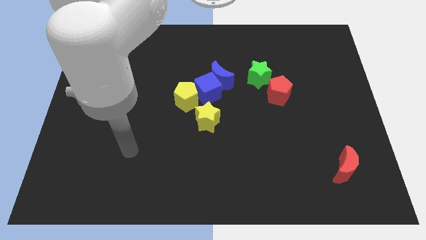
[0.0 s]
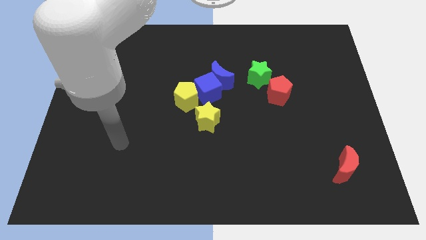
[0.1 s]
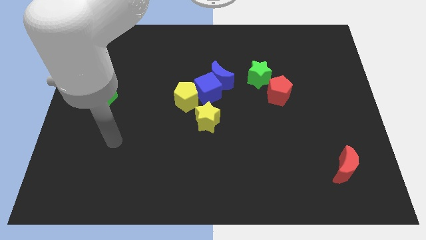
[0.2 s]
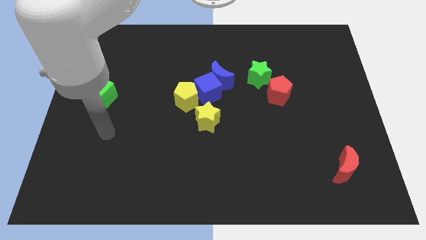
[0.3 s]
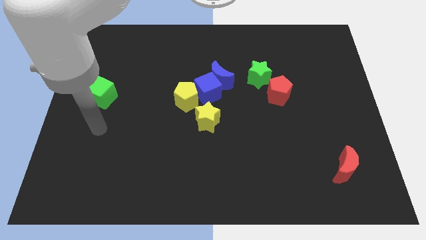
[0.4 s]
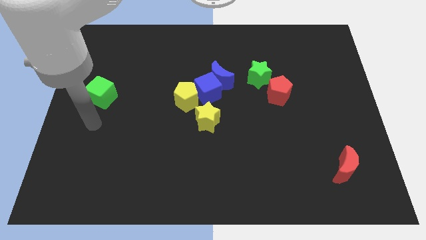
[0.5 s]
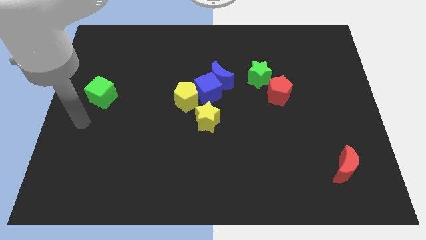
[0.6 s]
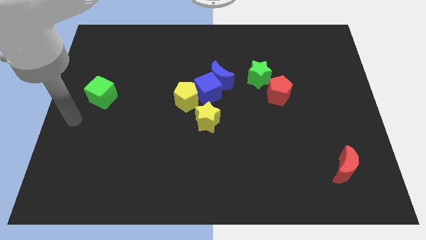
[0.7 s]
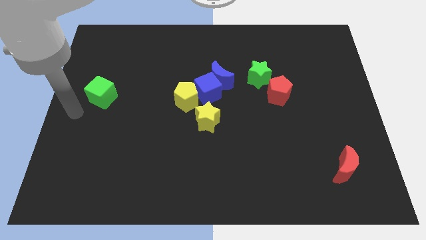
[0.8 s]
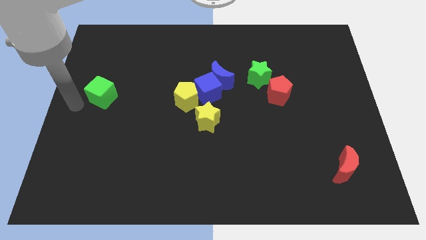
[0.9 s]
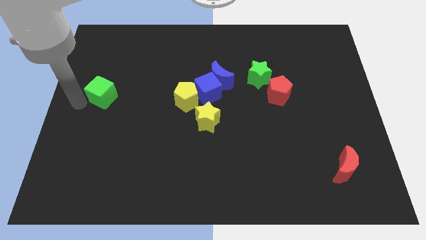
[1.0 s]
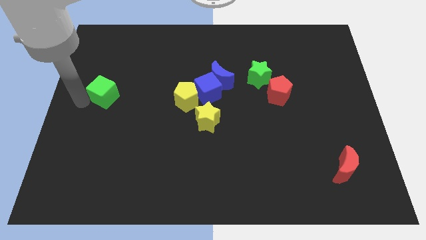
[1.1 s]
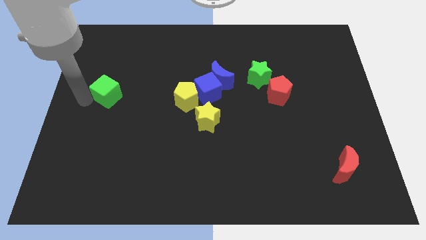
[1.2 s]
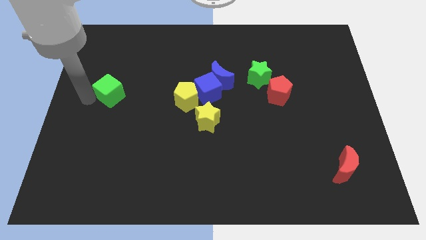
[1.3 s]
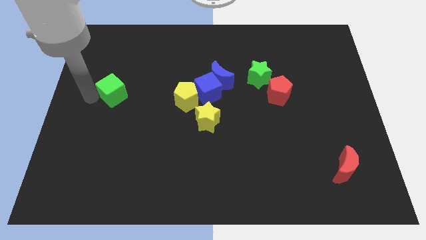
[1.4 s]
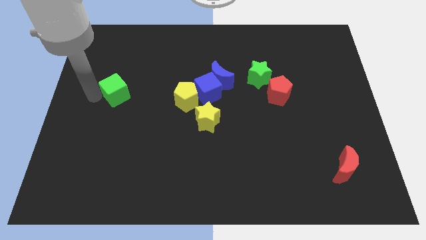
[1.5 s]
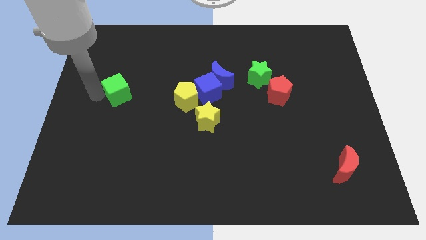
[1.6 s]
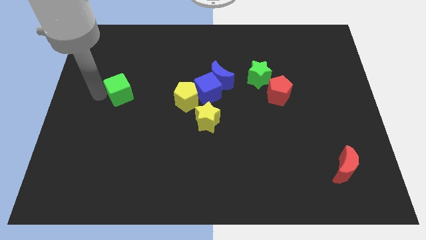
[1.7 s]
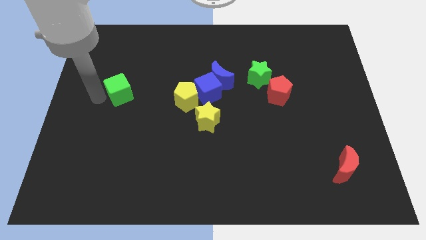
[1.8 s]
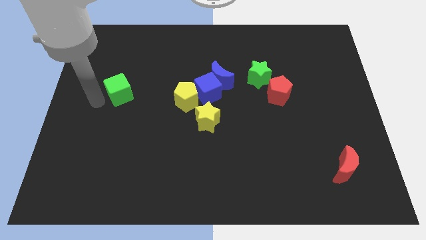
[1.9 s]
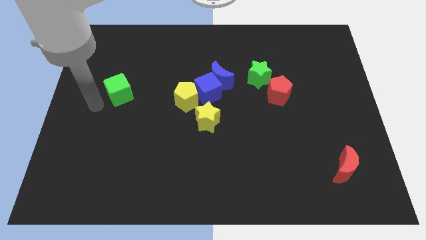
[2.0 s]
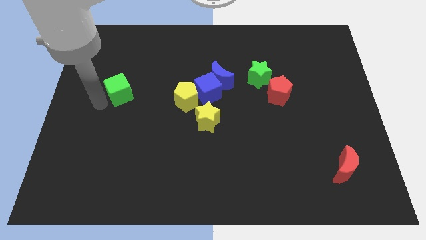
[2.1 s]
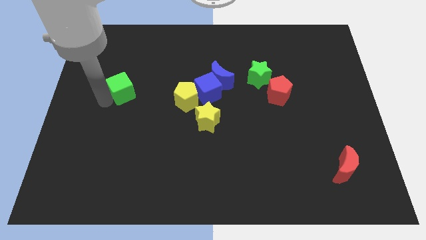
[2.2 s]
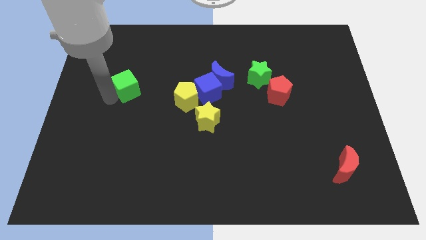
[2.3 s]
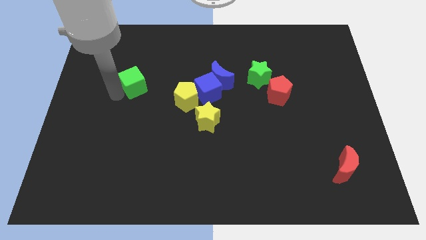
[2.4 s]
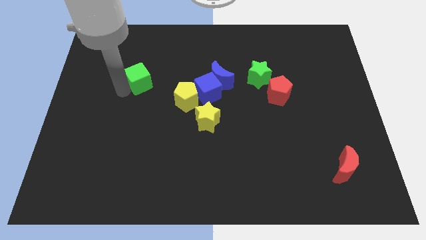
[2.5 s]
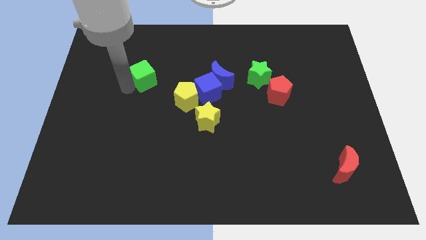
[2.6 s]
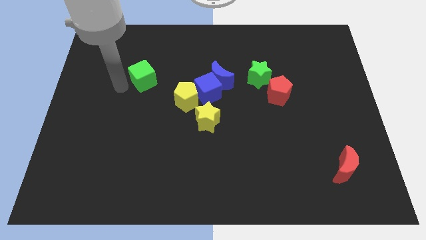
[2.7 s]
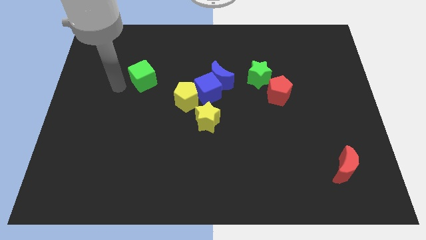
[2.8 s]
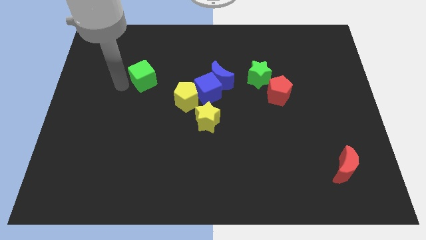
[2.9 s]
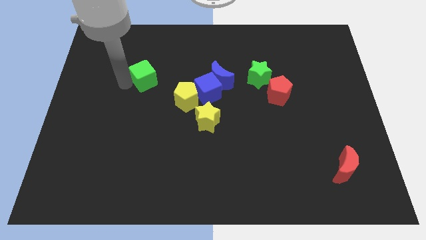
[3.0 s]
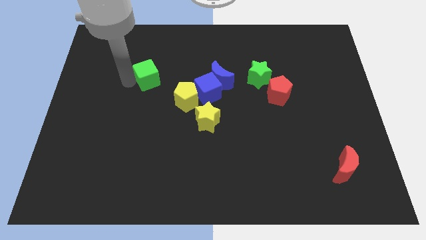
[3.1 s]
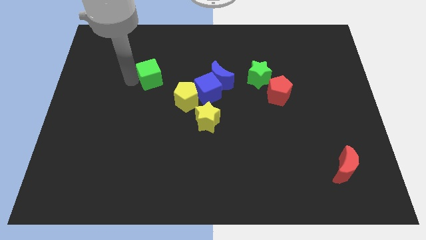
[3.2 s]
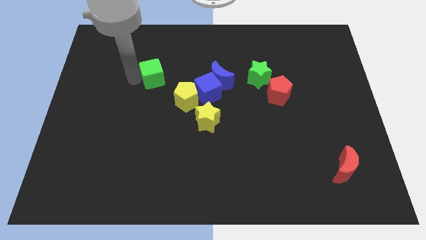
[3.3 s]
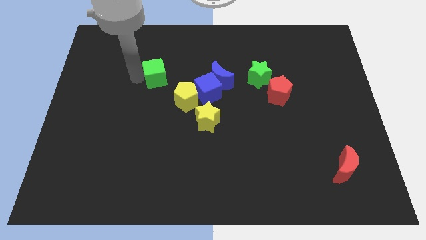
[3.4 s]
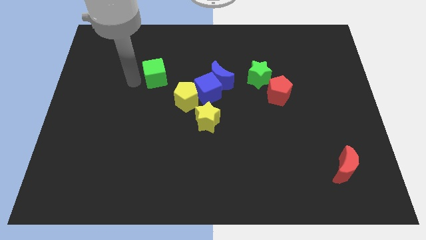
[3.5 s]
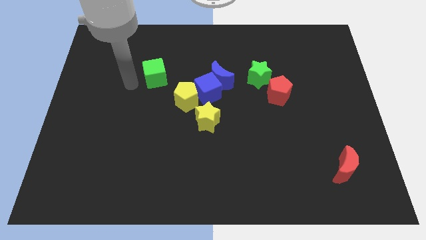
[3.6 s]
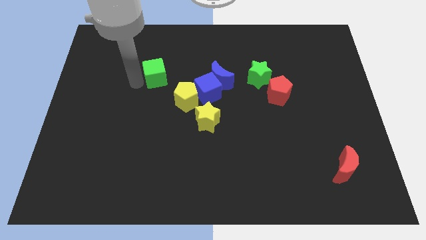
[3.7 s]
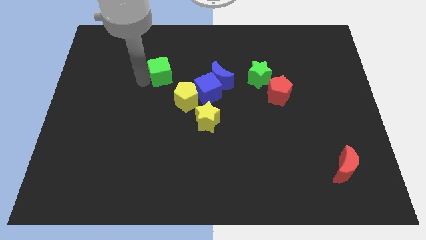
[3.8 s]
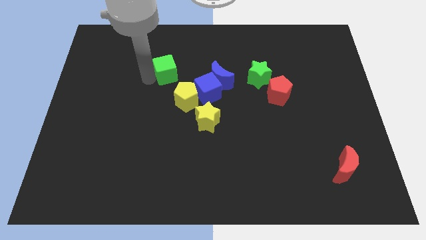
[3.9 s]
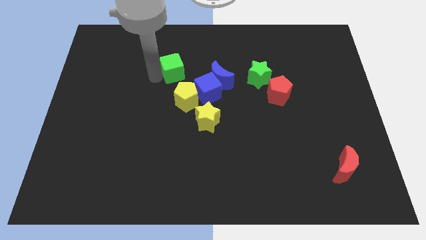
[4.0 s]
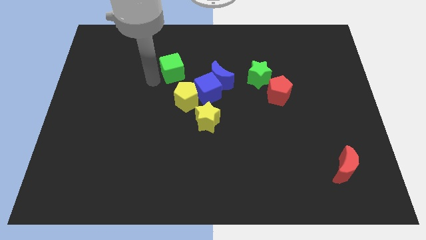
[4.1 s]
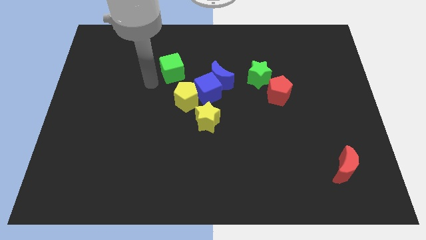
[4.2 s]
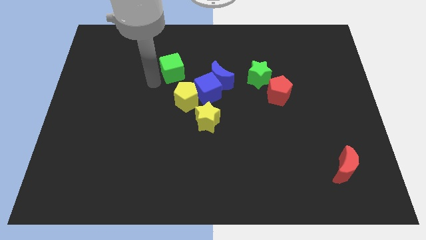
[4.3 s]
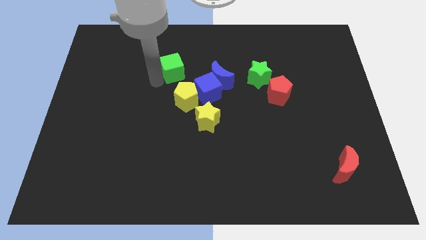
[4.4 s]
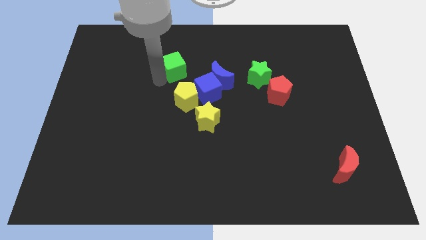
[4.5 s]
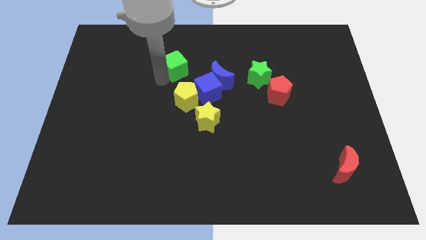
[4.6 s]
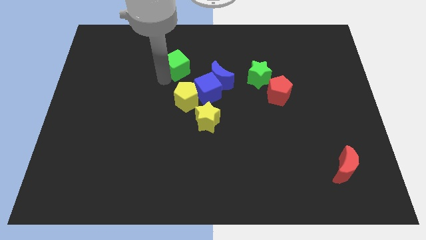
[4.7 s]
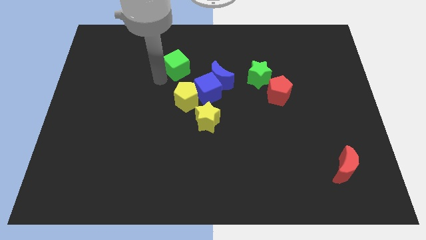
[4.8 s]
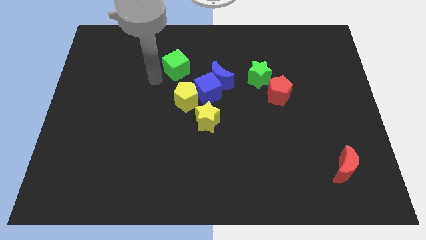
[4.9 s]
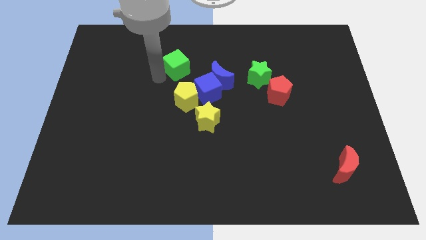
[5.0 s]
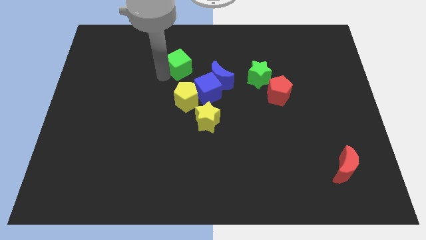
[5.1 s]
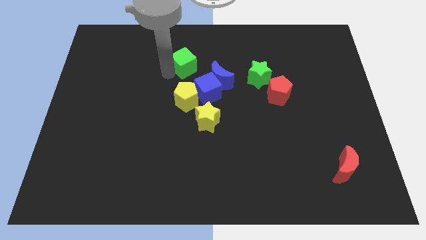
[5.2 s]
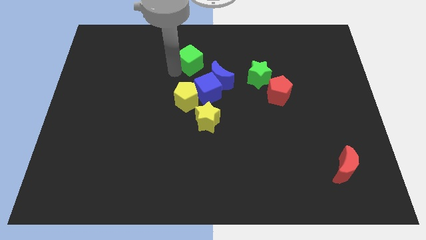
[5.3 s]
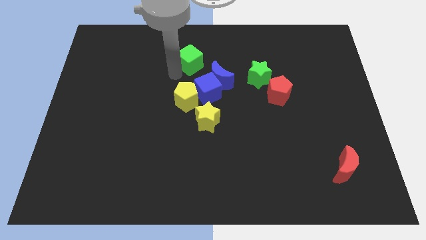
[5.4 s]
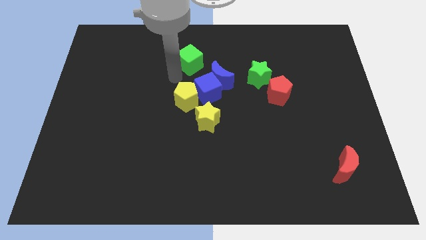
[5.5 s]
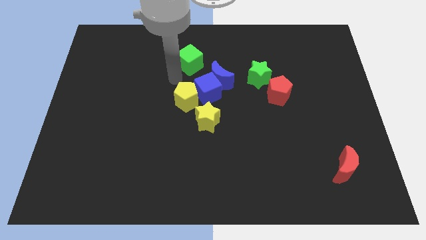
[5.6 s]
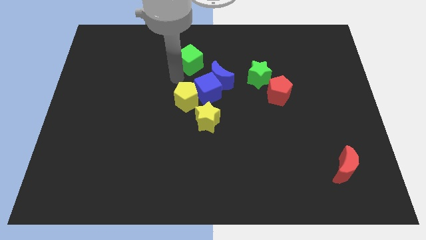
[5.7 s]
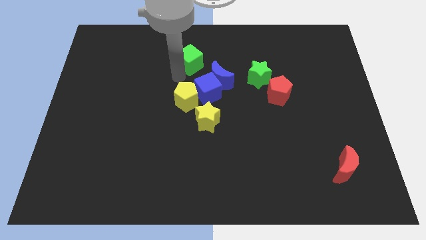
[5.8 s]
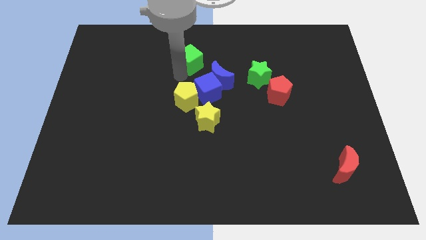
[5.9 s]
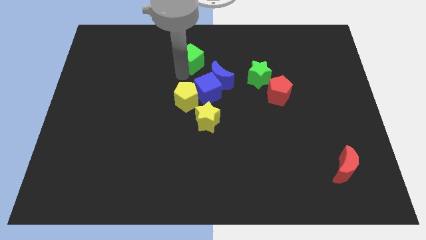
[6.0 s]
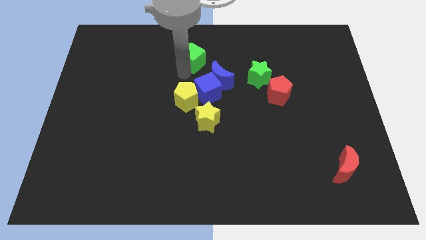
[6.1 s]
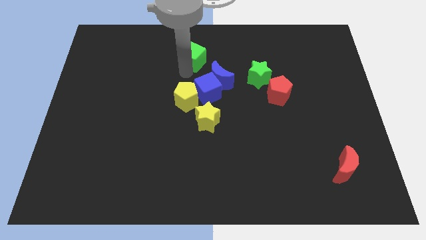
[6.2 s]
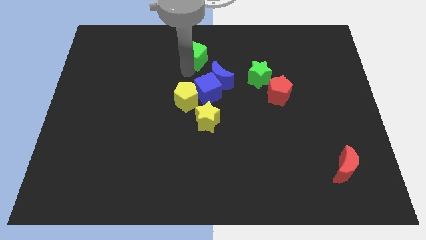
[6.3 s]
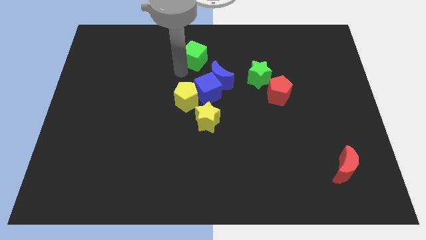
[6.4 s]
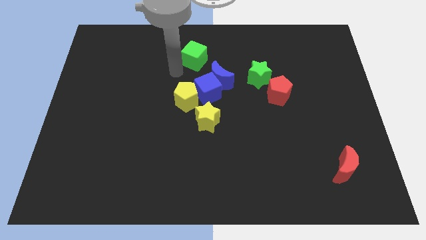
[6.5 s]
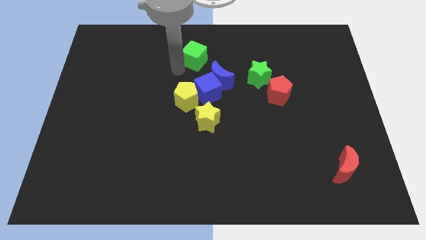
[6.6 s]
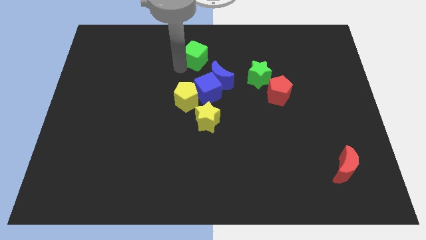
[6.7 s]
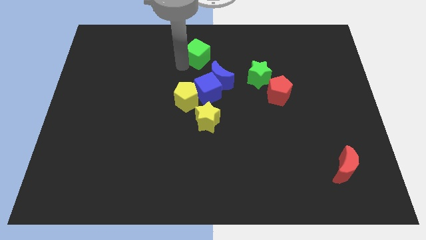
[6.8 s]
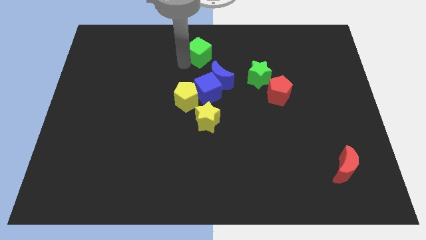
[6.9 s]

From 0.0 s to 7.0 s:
move the green cube to the top side
